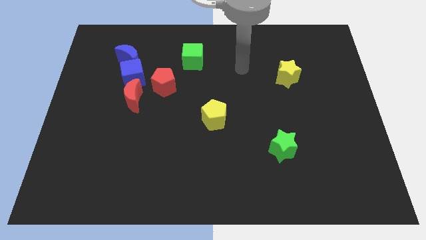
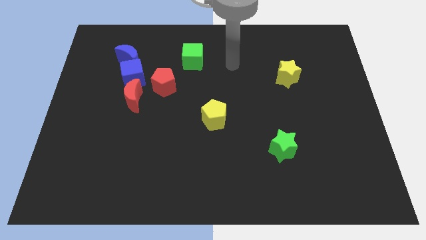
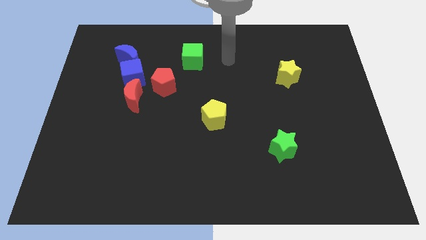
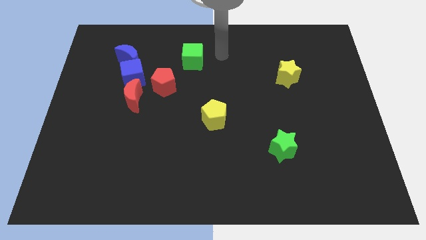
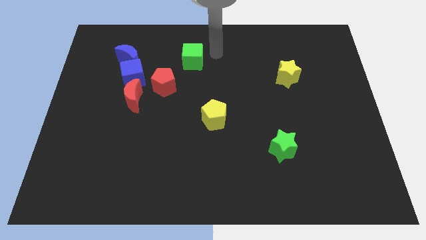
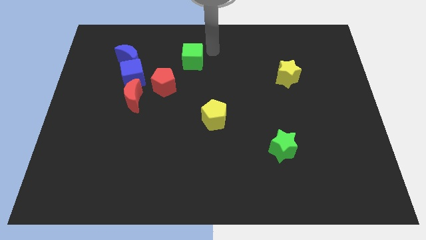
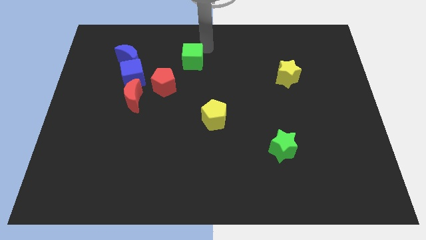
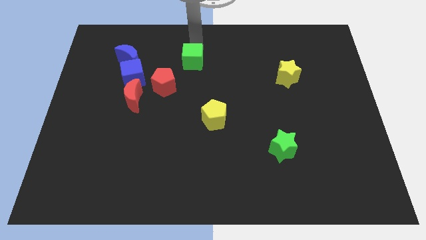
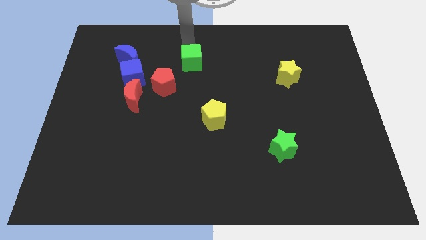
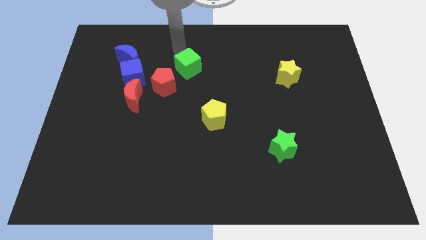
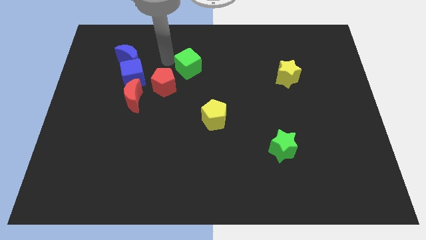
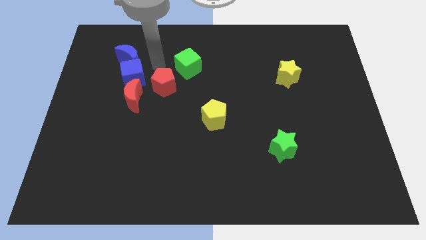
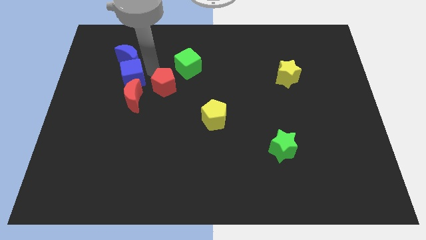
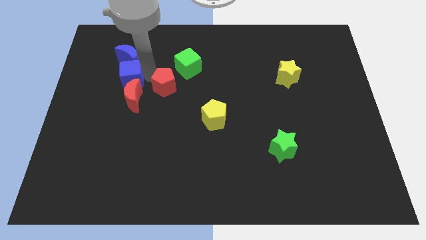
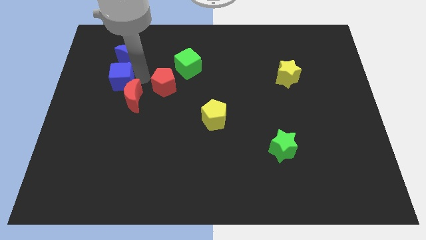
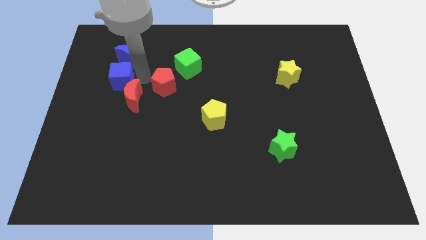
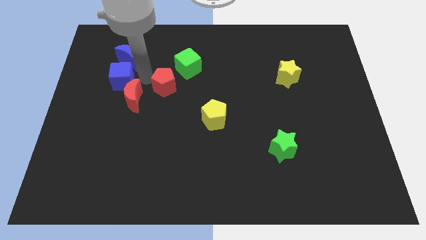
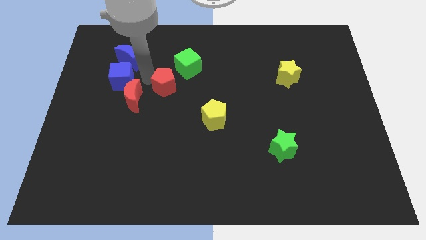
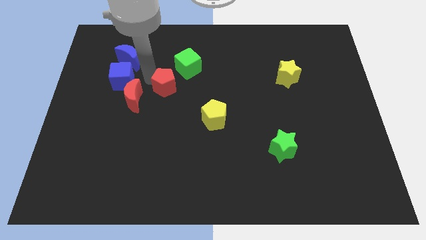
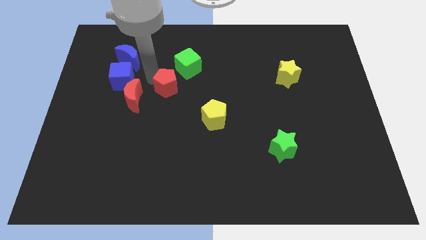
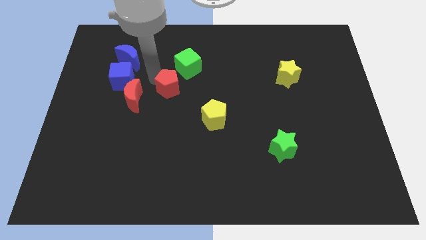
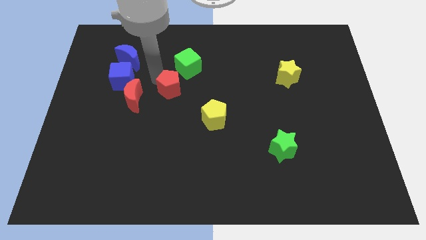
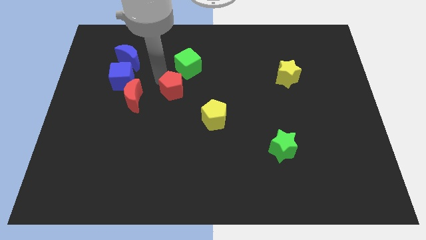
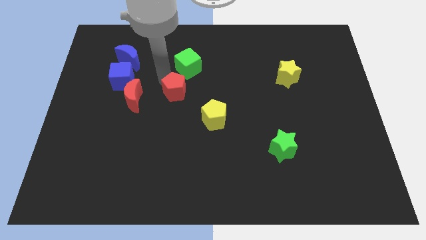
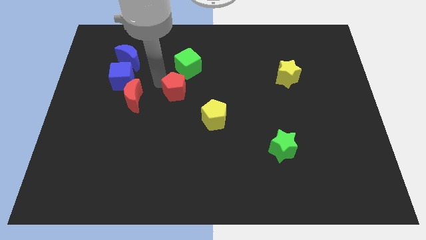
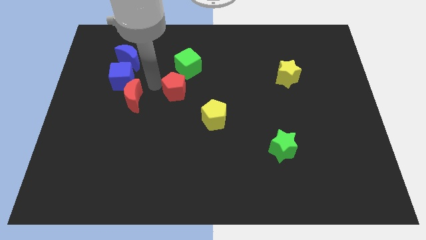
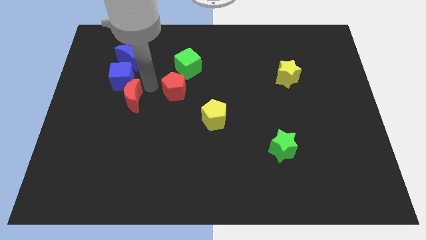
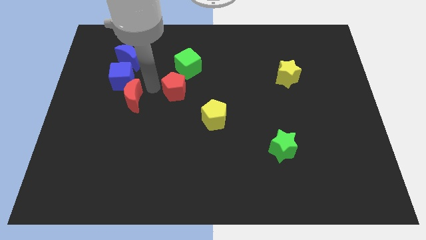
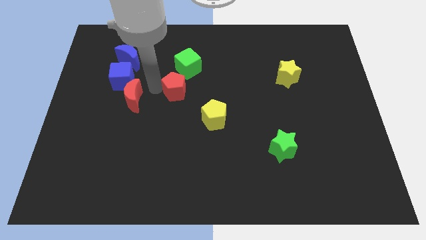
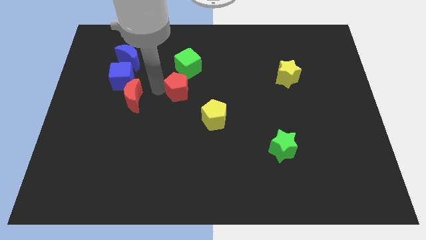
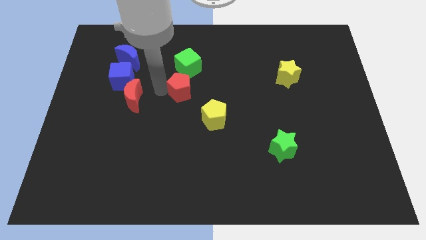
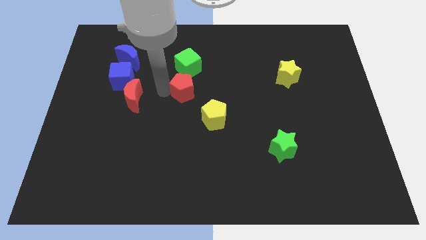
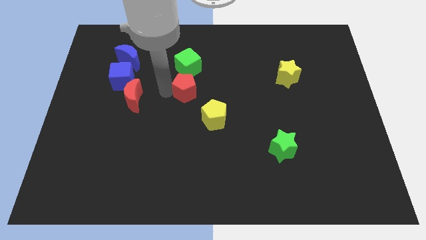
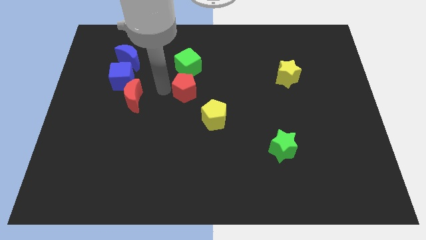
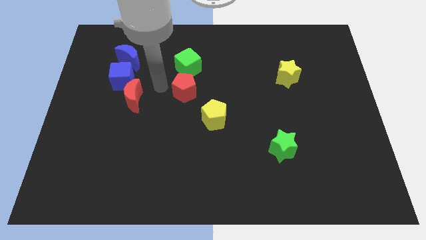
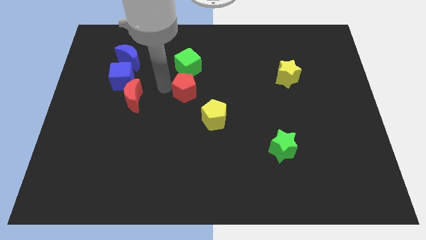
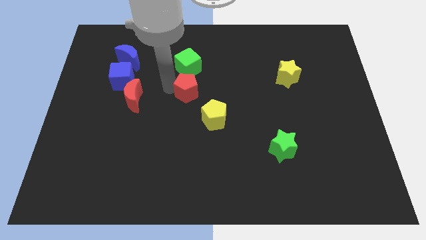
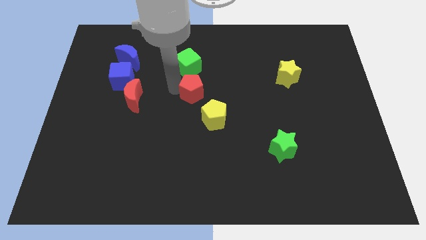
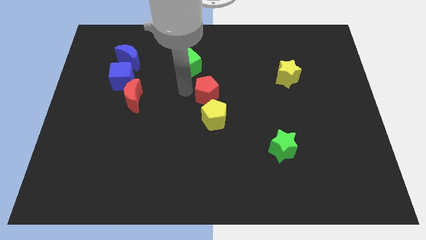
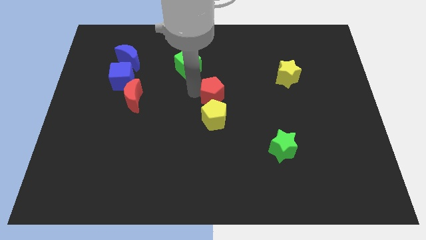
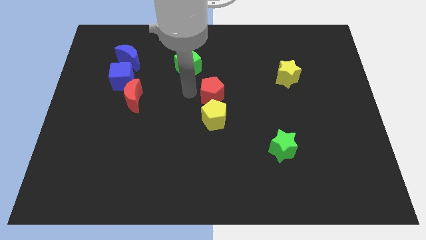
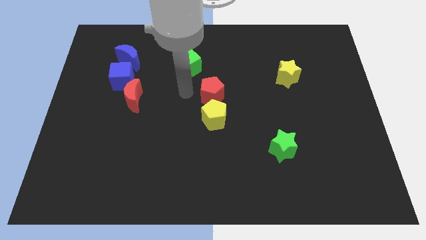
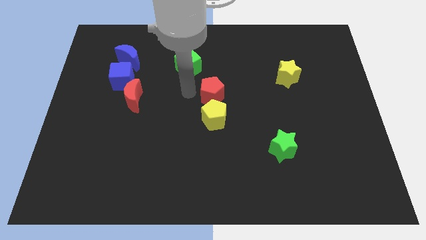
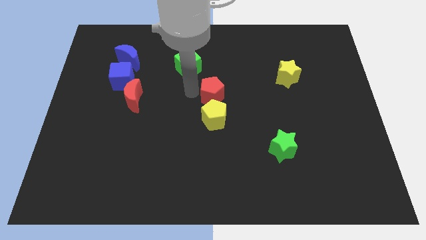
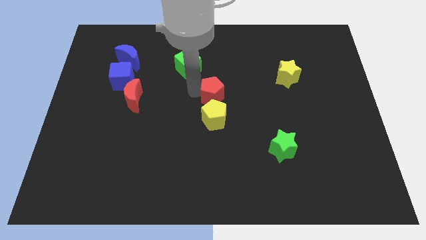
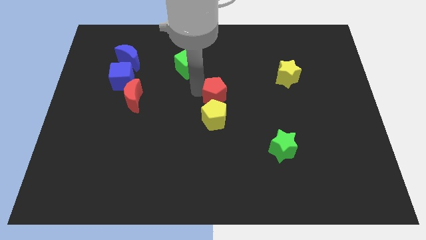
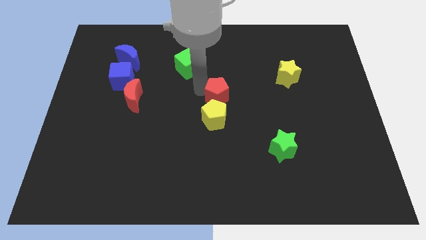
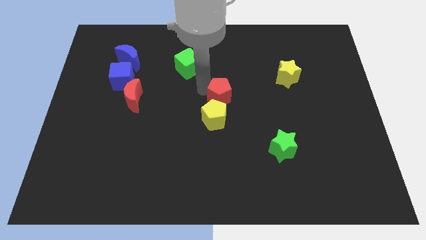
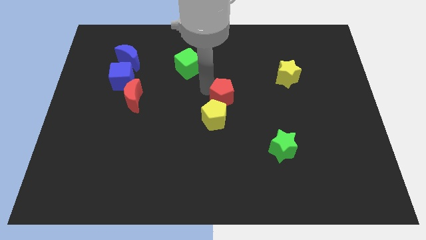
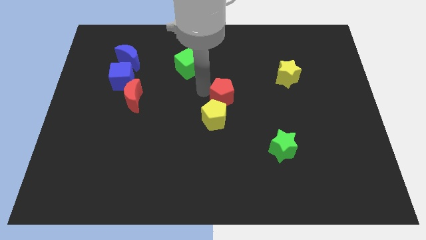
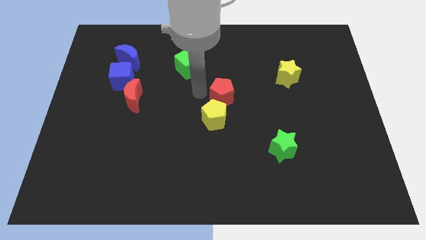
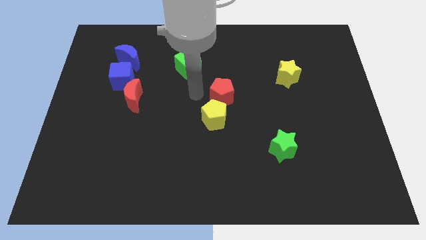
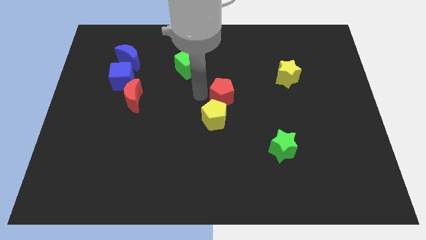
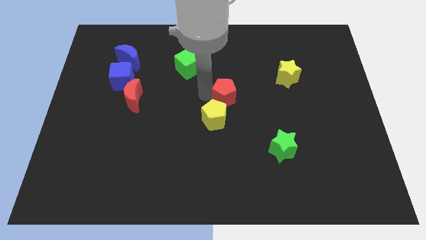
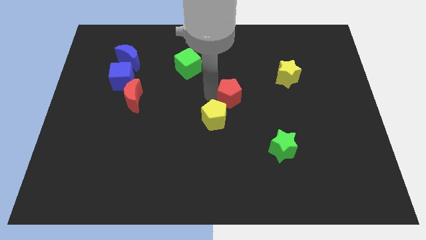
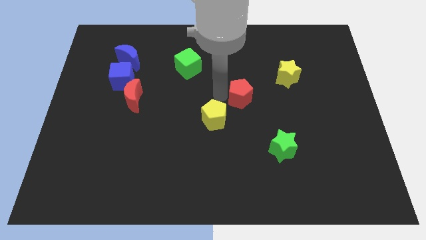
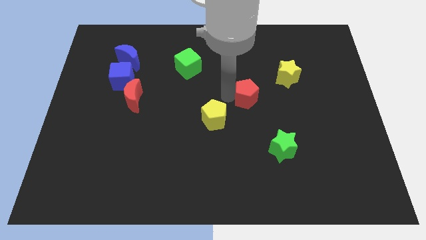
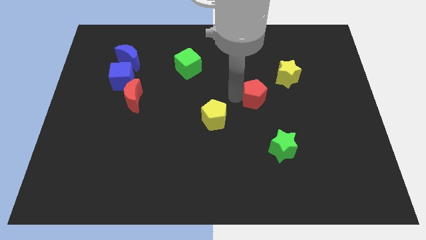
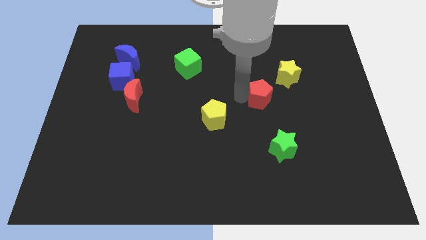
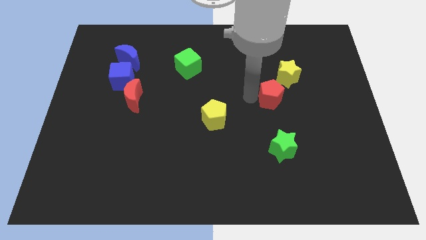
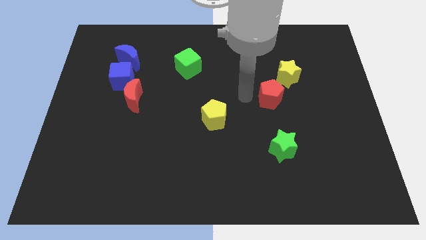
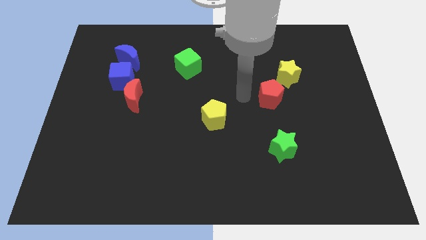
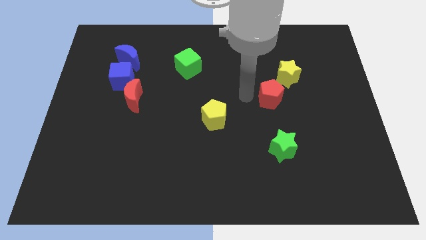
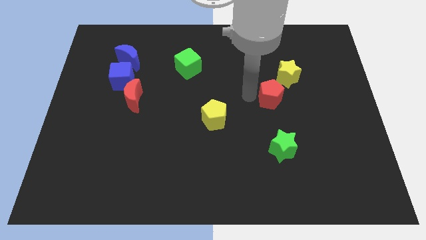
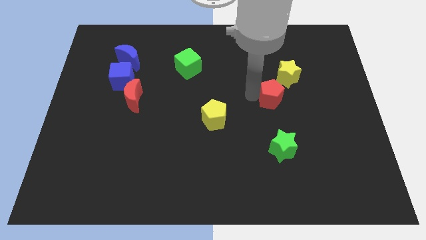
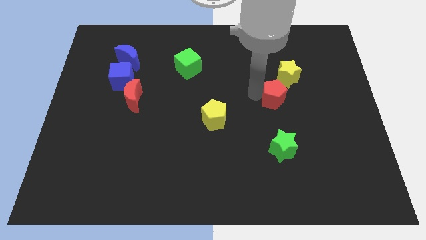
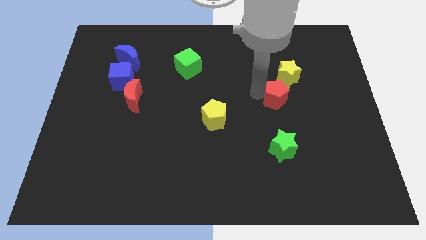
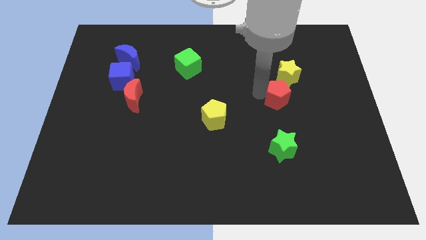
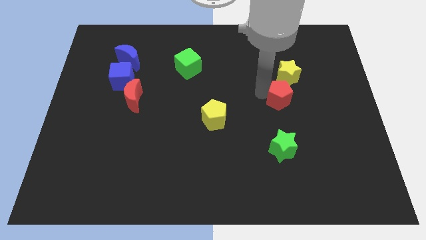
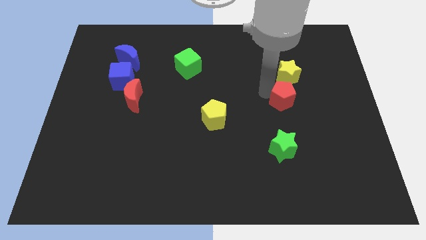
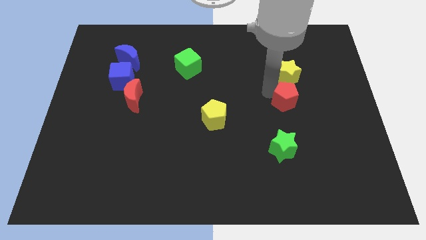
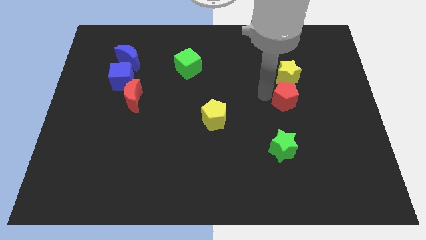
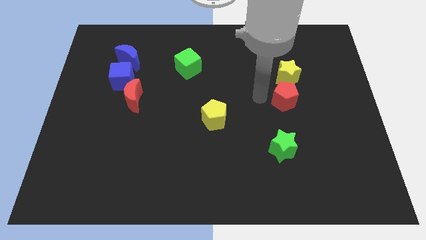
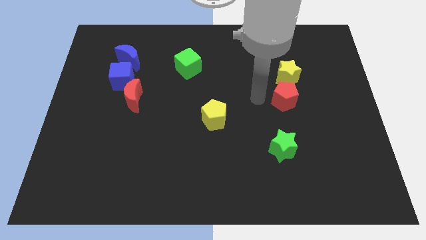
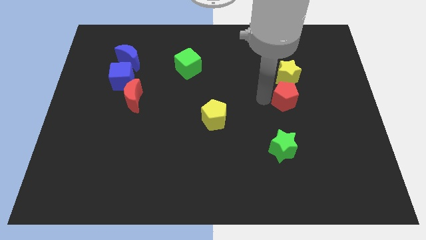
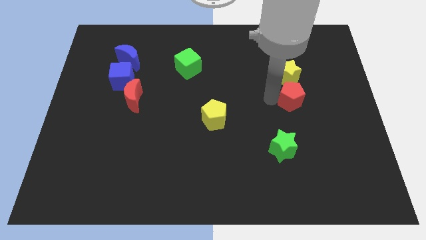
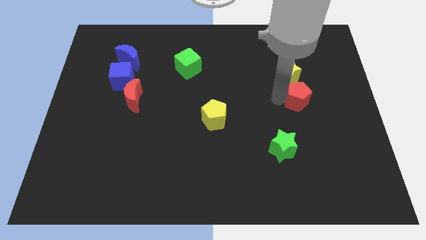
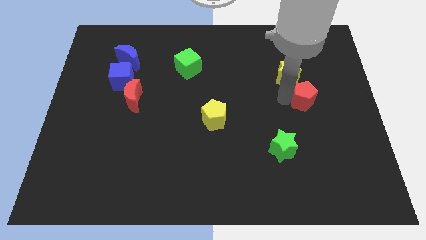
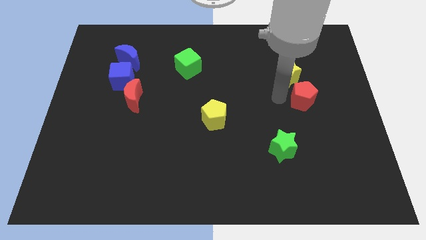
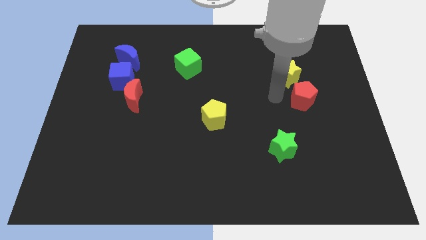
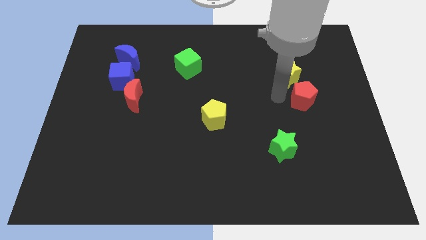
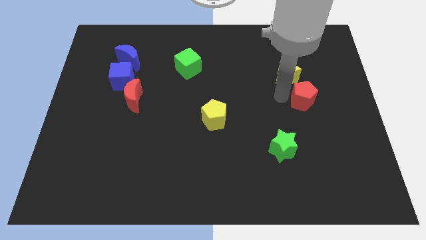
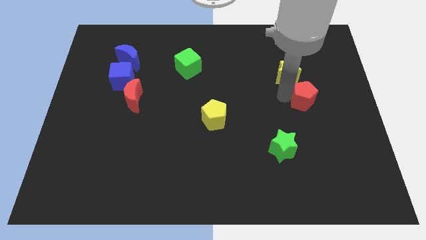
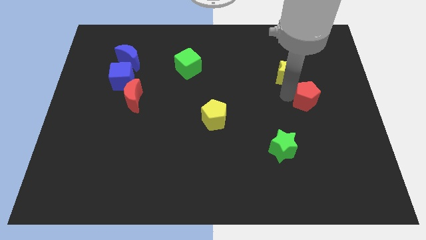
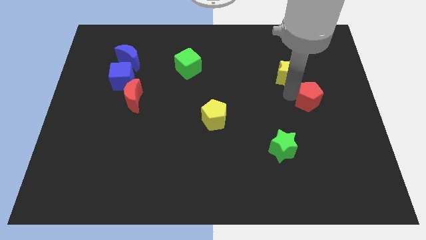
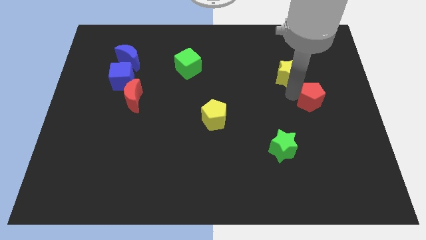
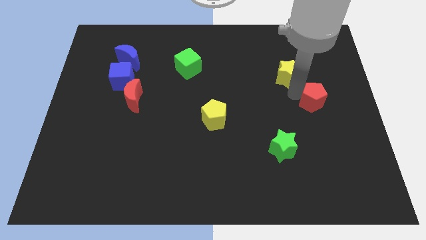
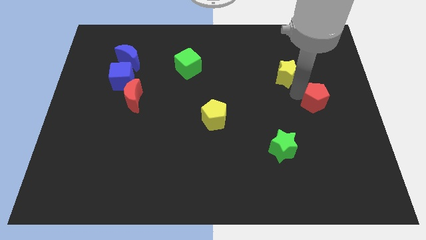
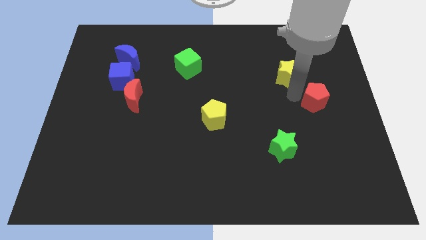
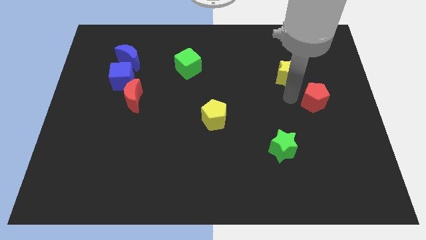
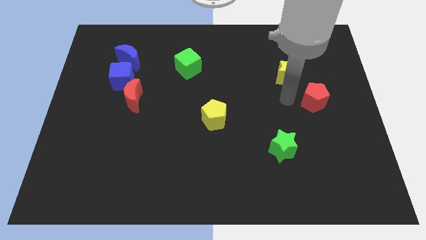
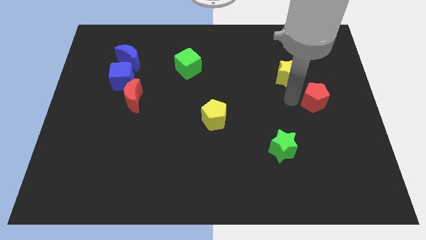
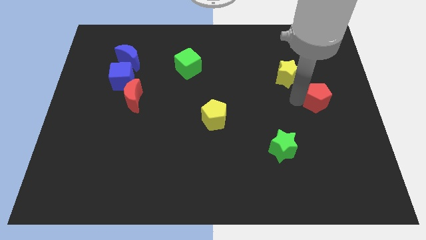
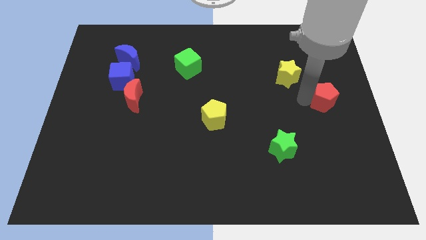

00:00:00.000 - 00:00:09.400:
put the red pentagon to the center right
